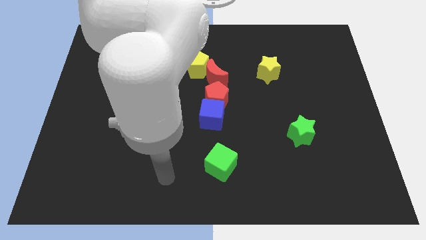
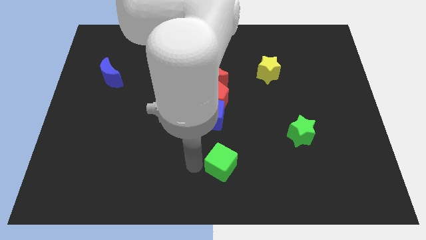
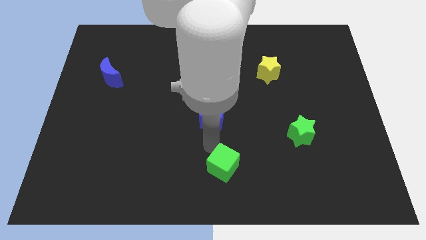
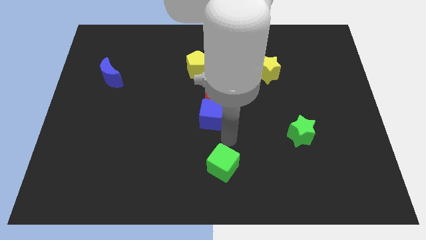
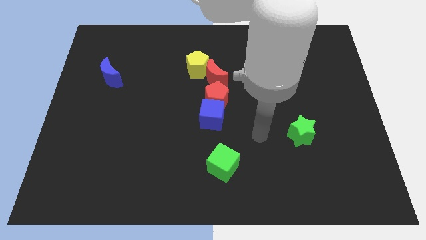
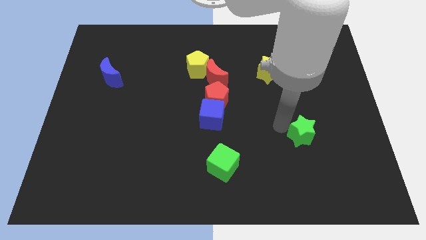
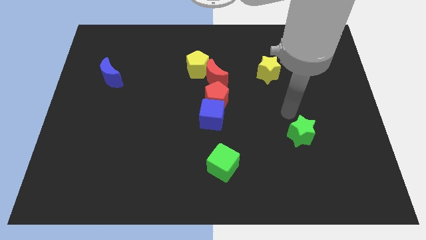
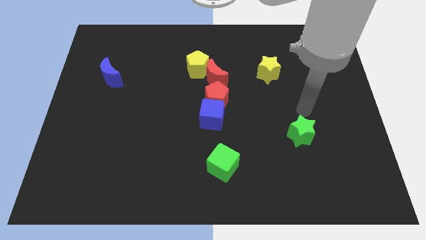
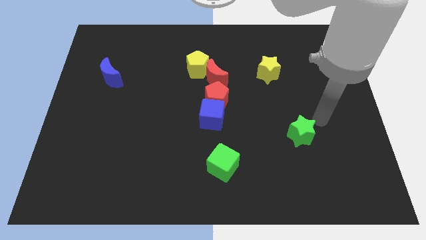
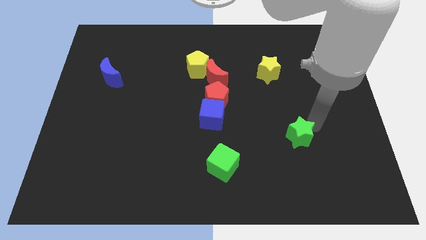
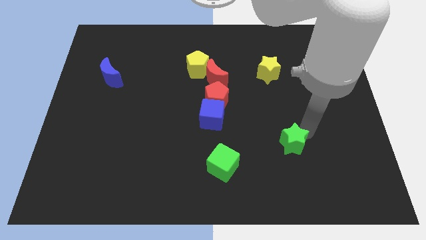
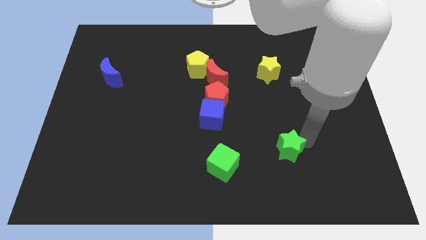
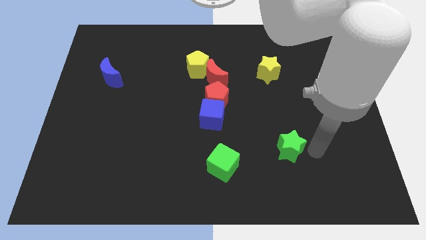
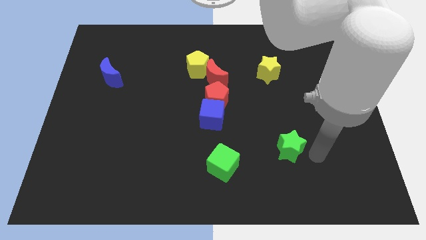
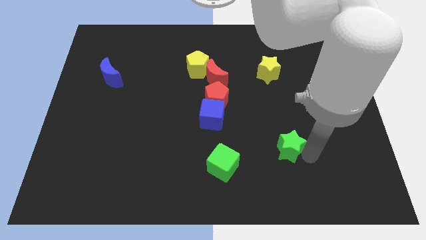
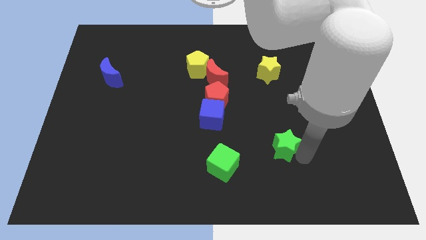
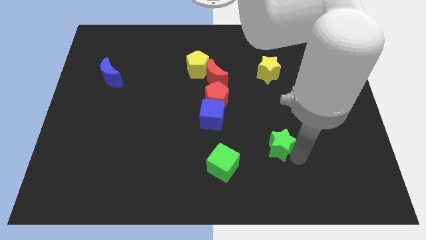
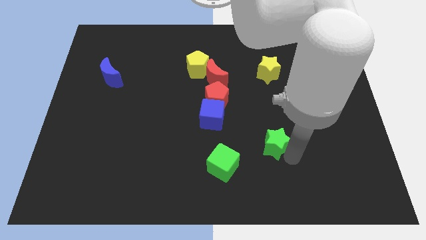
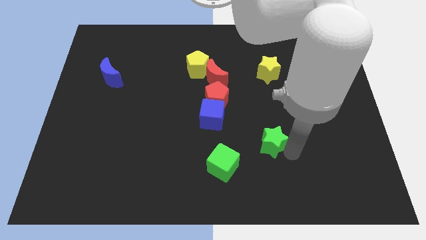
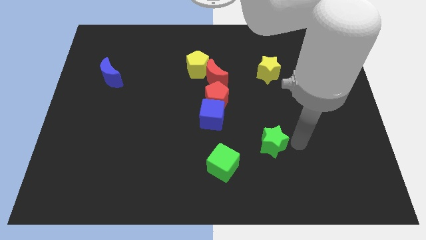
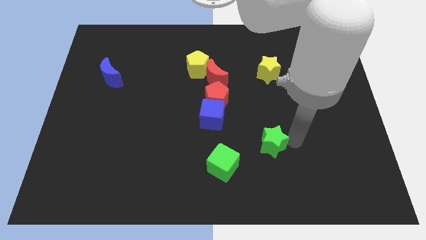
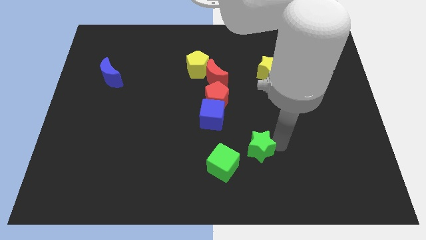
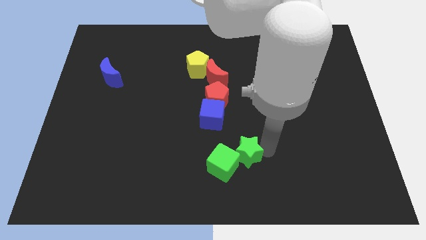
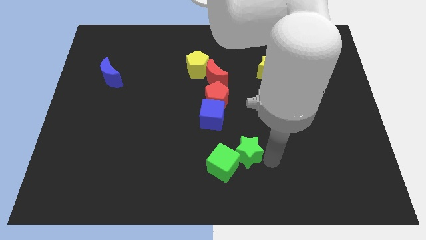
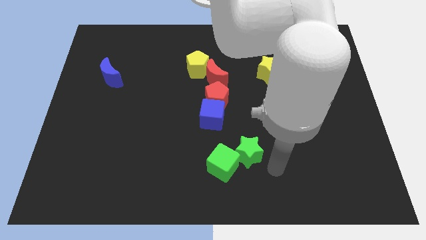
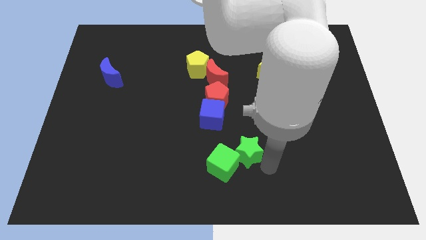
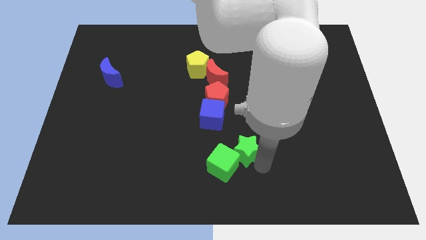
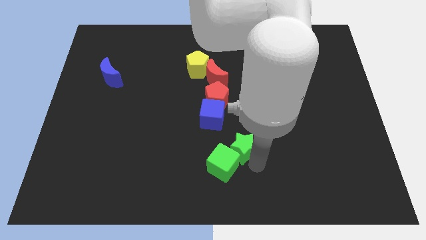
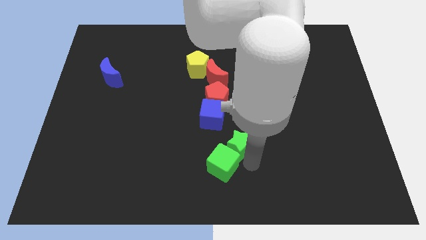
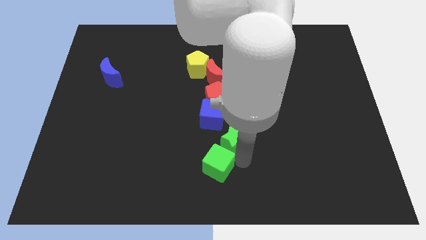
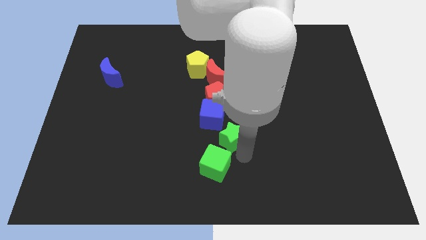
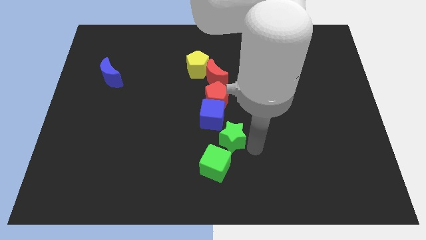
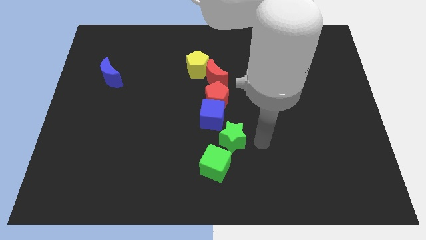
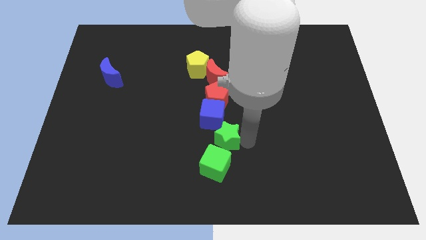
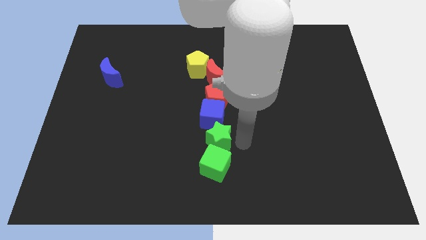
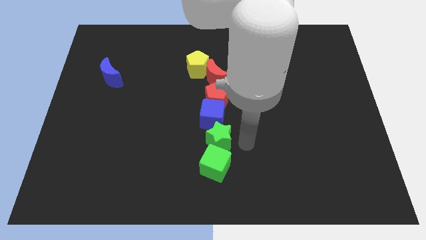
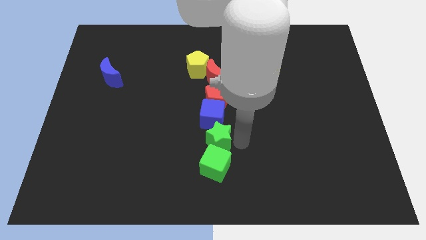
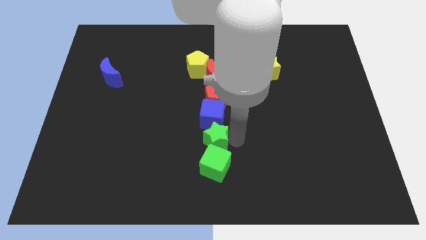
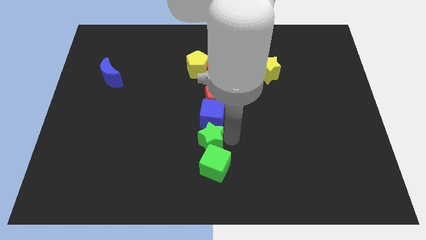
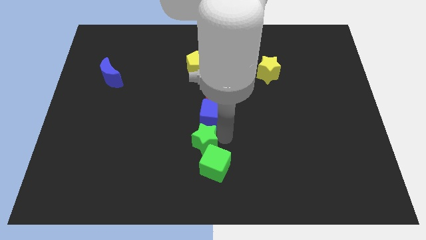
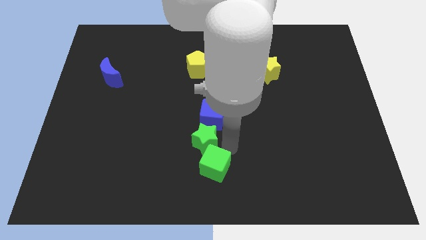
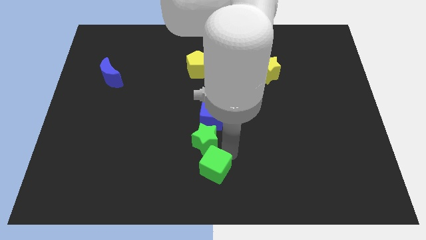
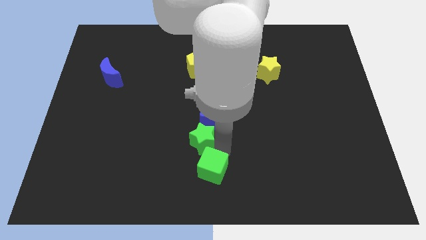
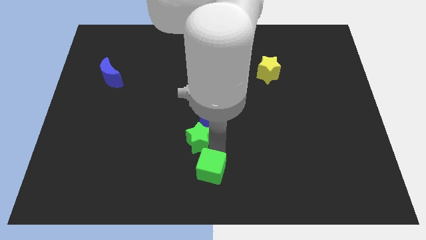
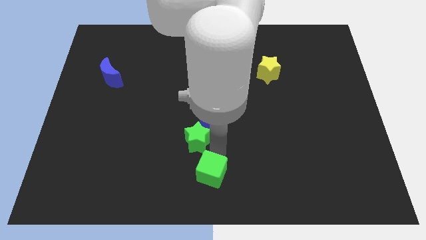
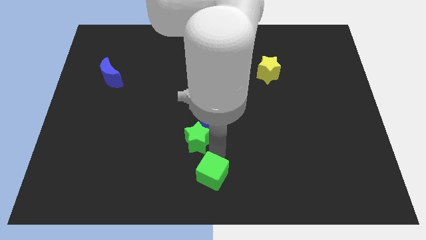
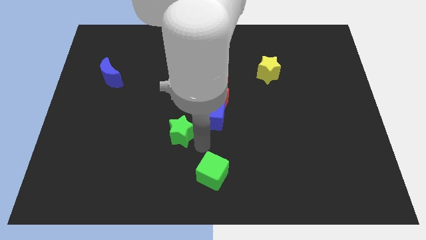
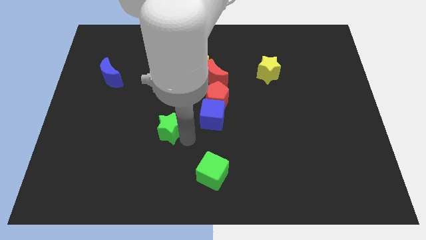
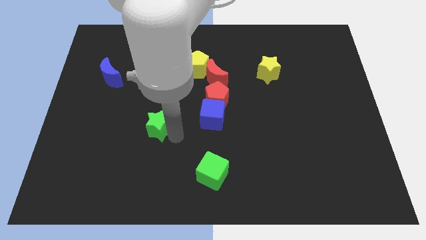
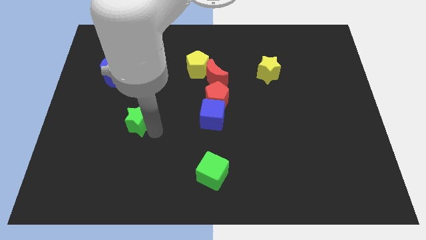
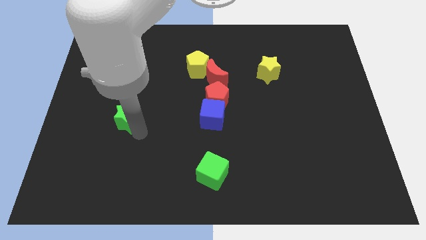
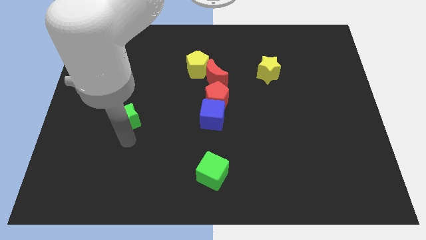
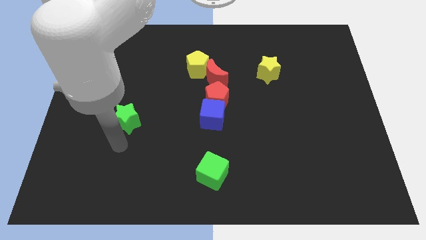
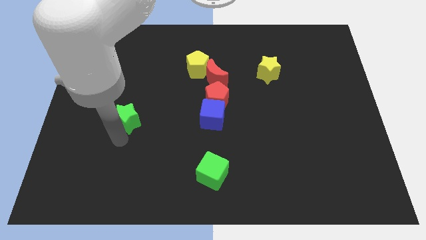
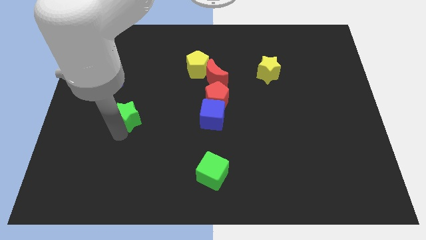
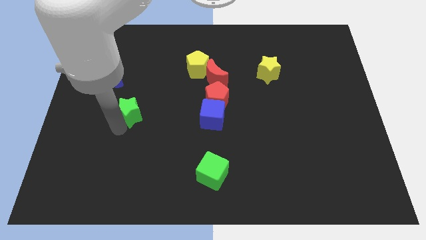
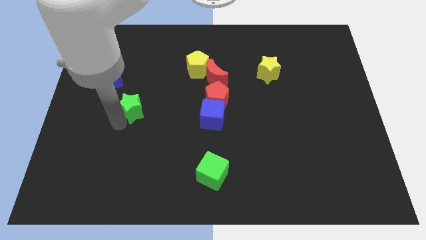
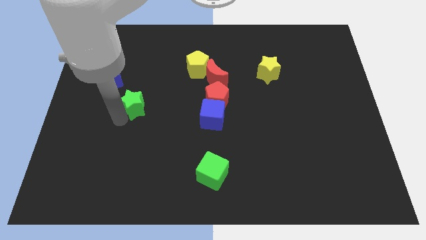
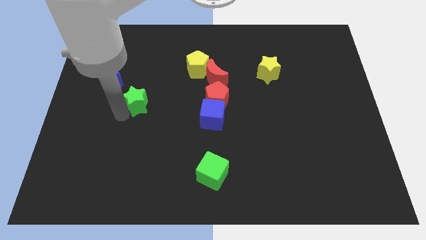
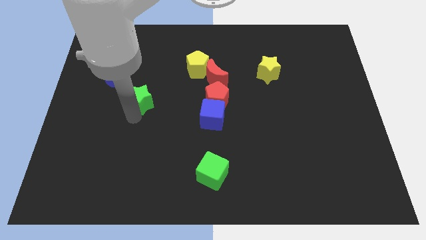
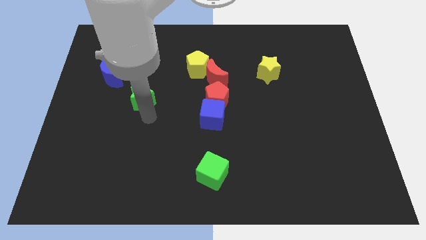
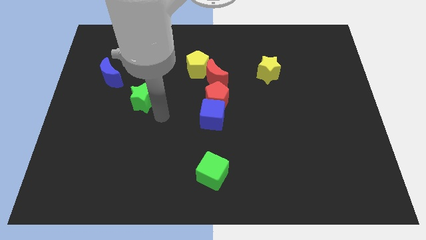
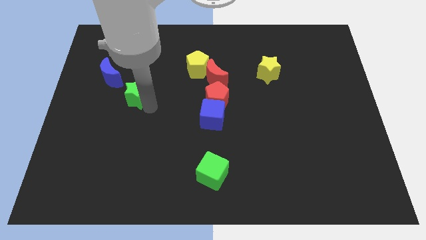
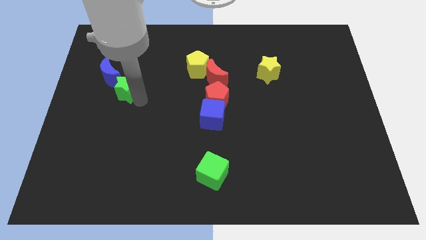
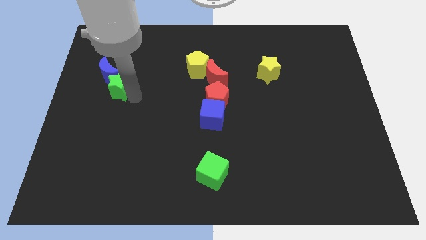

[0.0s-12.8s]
move the green star towards the blue moon
